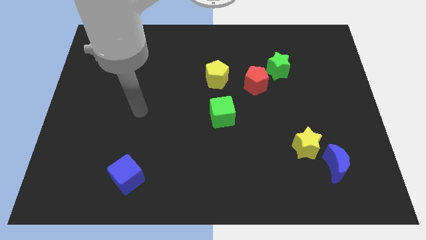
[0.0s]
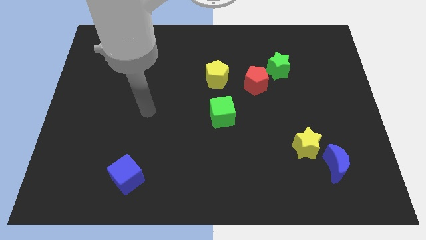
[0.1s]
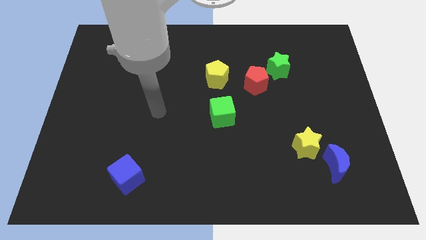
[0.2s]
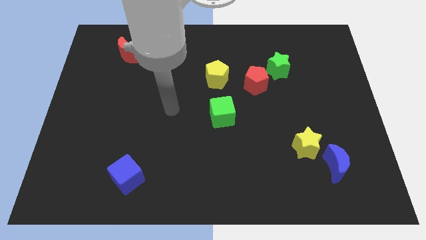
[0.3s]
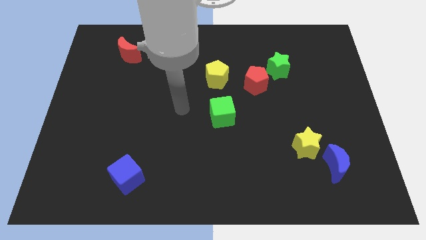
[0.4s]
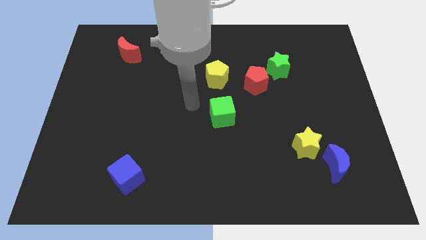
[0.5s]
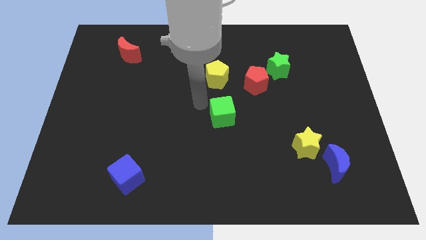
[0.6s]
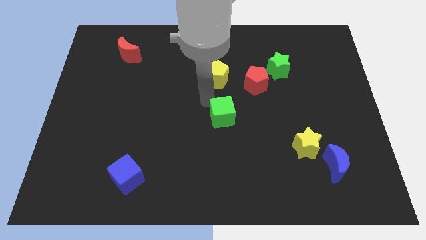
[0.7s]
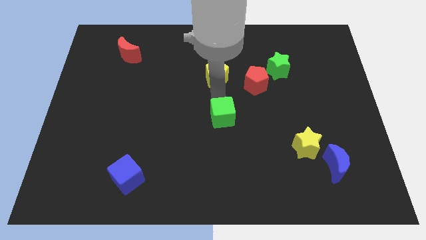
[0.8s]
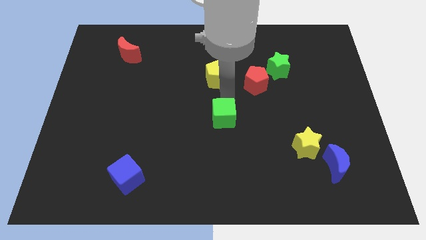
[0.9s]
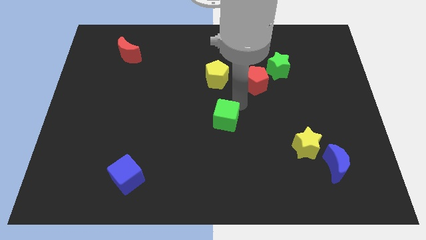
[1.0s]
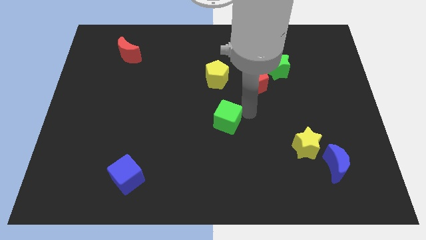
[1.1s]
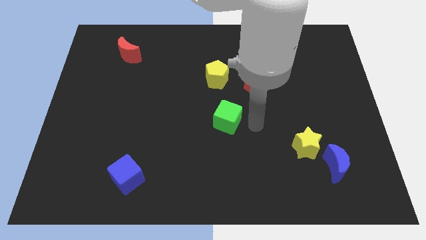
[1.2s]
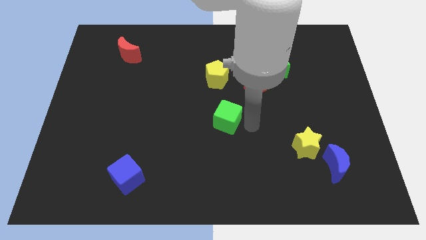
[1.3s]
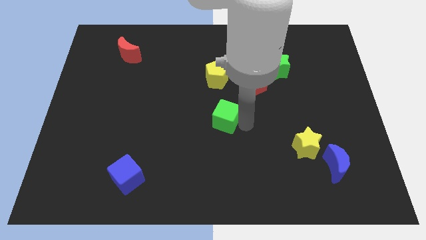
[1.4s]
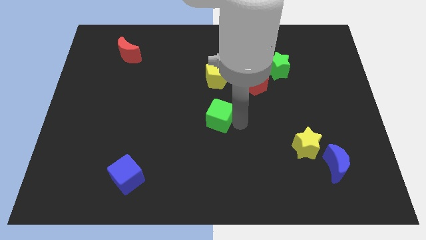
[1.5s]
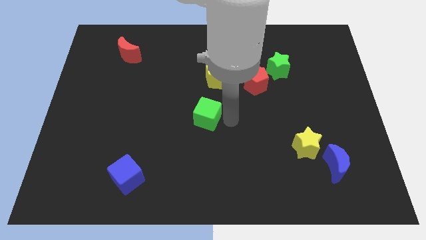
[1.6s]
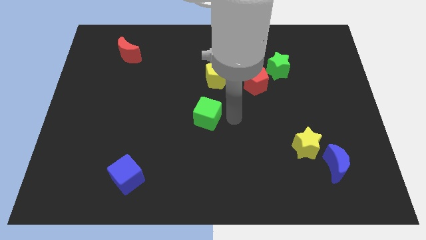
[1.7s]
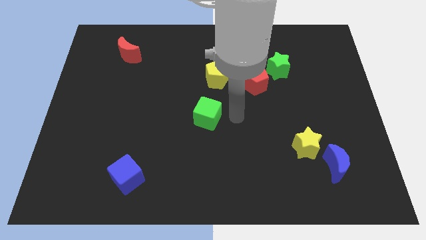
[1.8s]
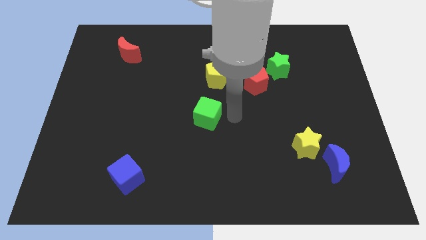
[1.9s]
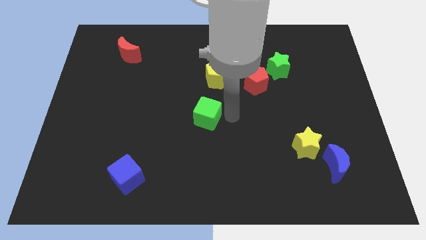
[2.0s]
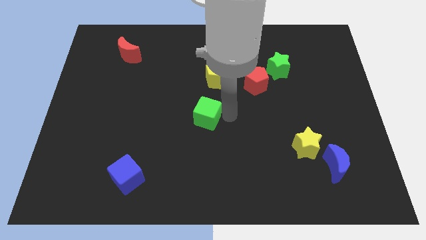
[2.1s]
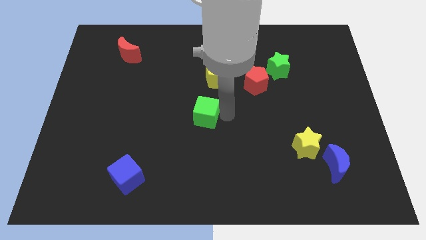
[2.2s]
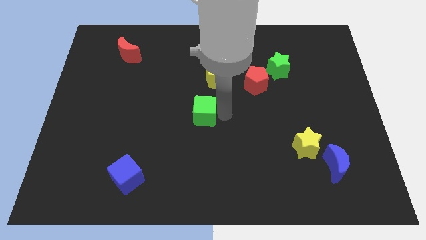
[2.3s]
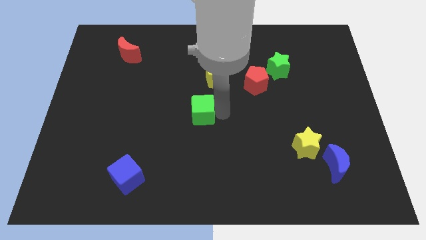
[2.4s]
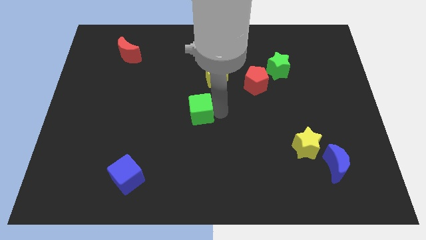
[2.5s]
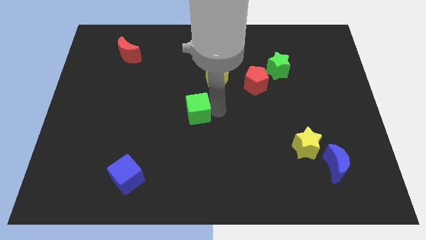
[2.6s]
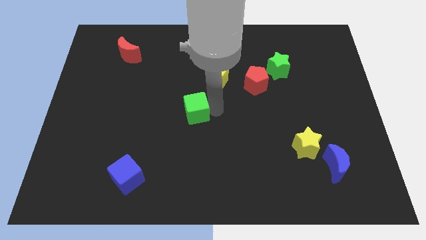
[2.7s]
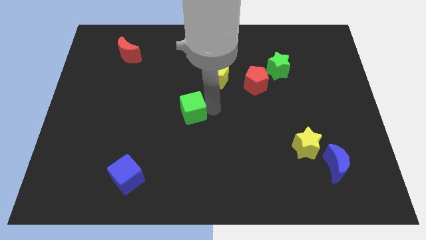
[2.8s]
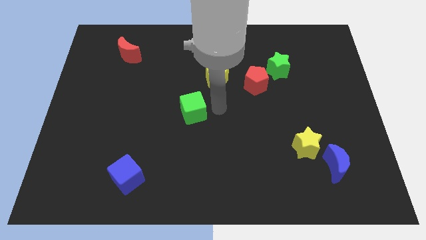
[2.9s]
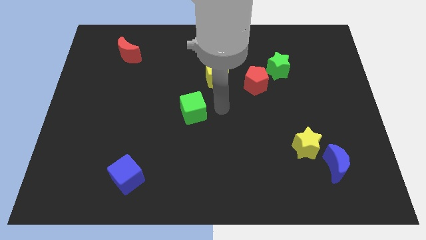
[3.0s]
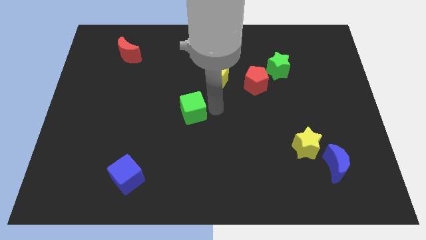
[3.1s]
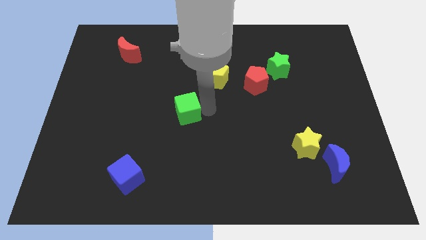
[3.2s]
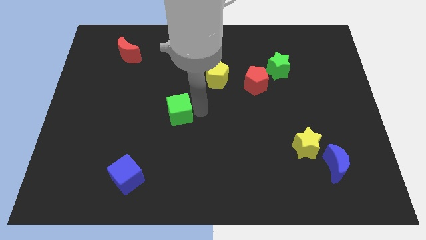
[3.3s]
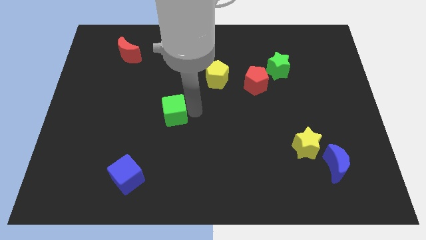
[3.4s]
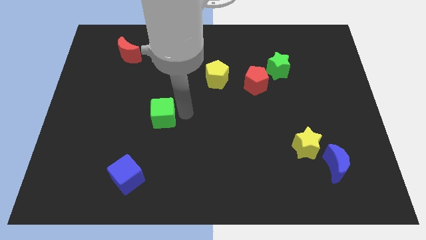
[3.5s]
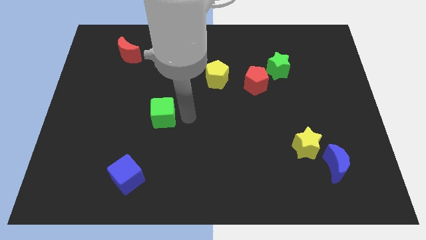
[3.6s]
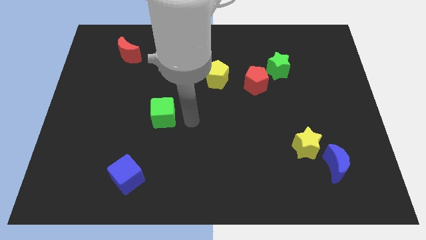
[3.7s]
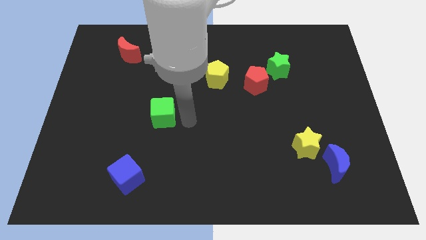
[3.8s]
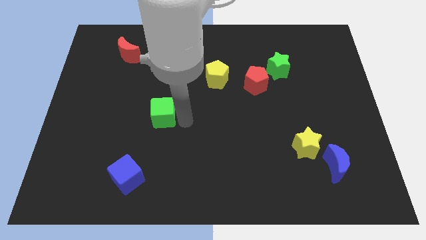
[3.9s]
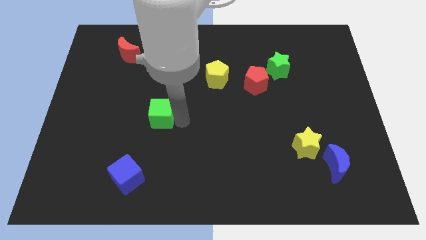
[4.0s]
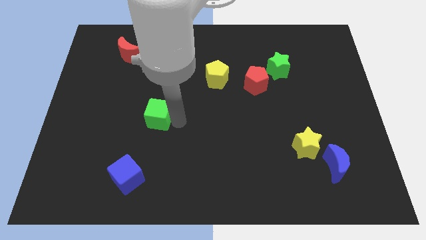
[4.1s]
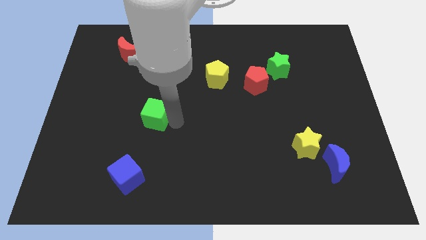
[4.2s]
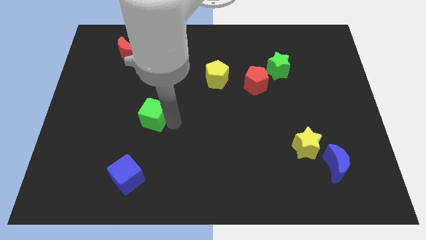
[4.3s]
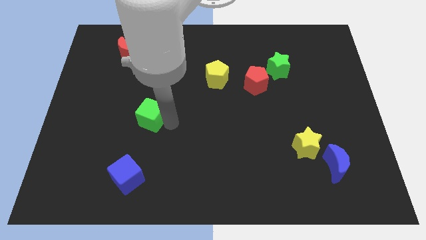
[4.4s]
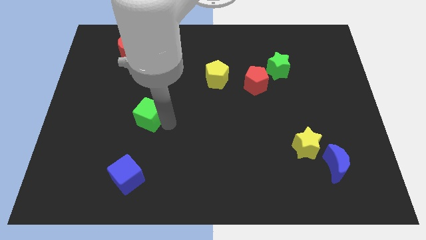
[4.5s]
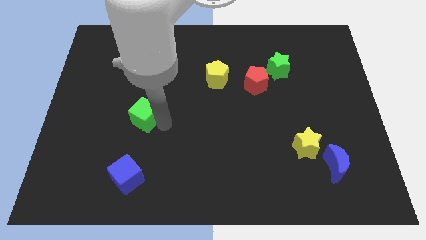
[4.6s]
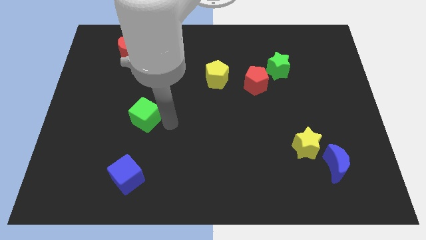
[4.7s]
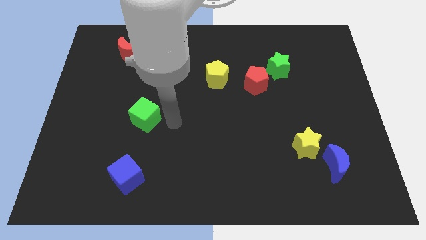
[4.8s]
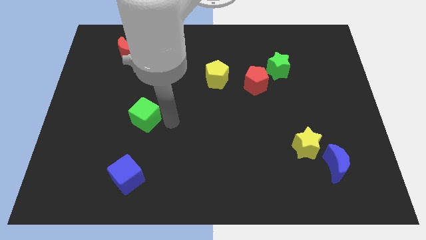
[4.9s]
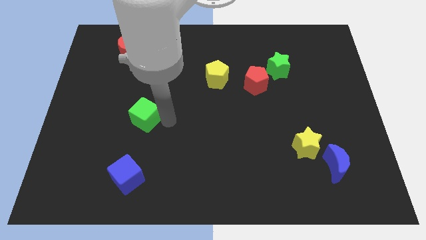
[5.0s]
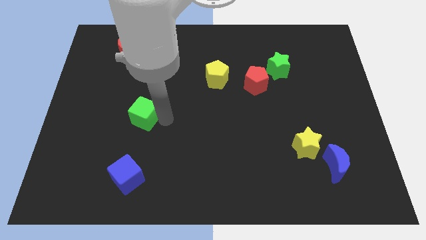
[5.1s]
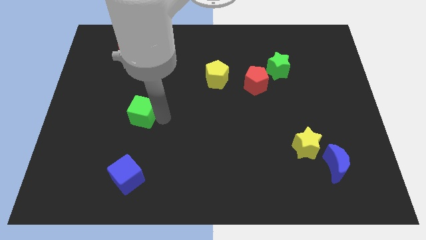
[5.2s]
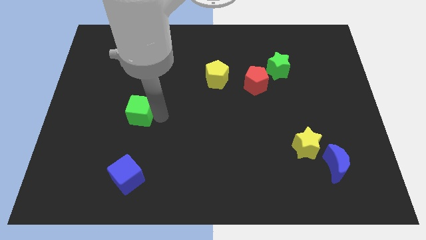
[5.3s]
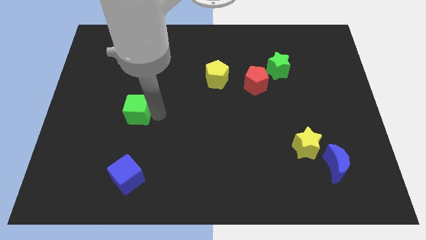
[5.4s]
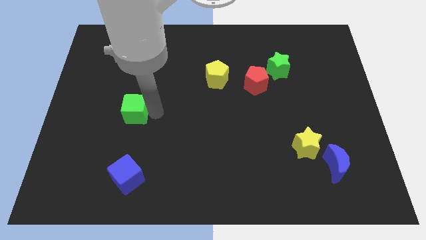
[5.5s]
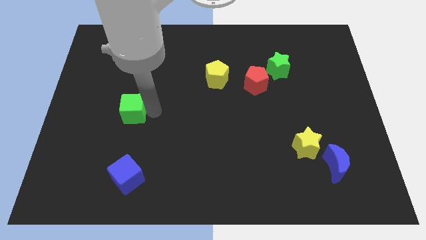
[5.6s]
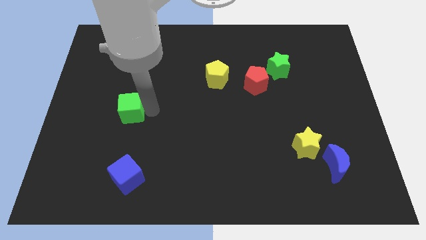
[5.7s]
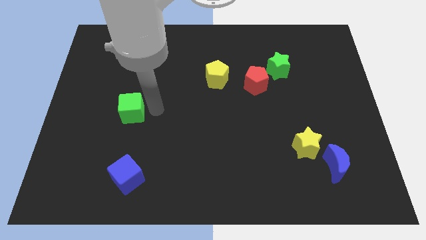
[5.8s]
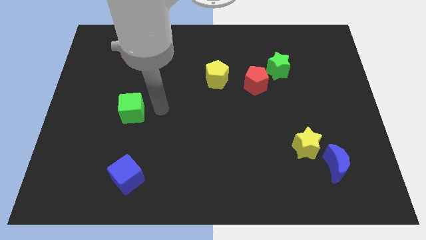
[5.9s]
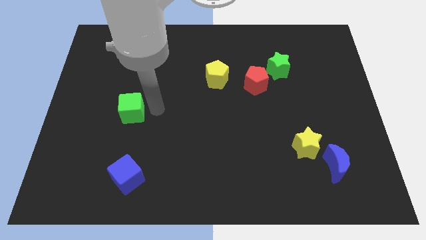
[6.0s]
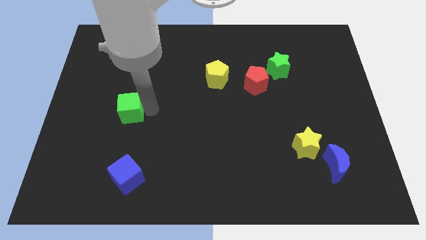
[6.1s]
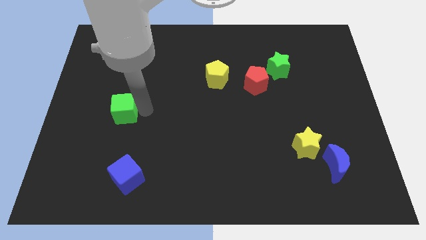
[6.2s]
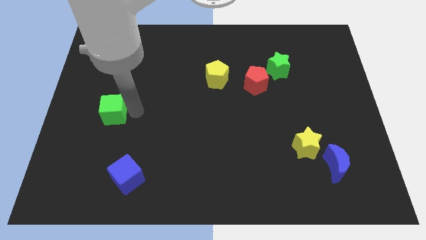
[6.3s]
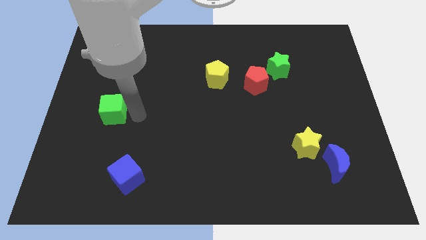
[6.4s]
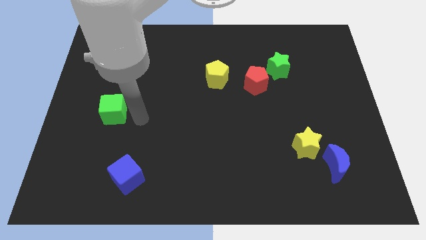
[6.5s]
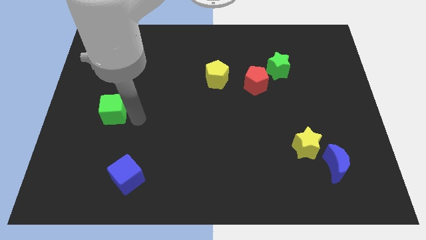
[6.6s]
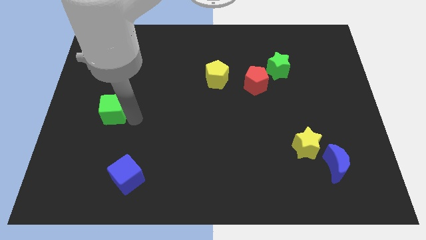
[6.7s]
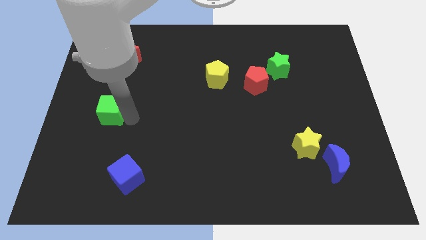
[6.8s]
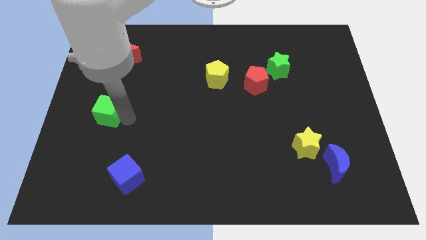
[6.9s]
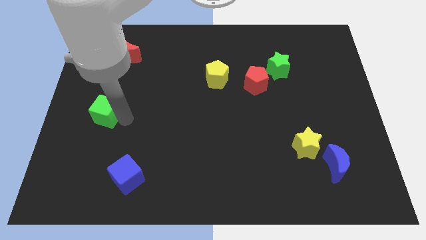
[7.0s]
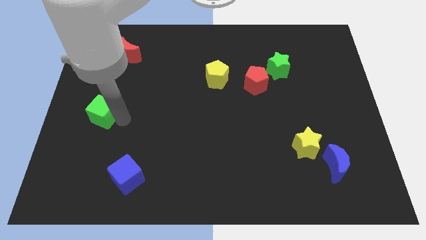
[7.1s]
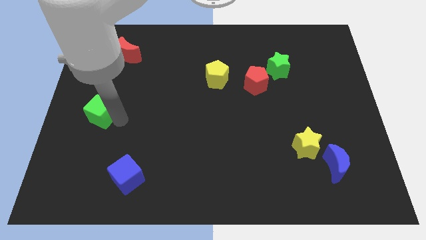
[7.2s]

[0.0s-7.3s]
move the green cube to the center left
